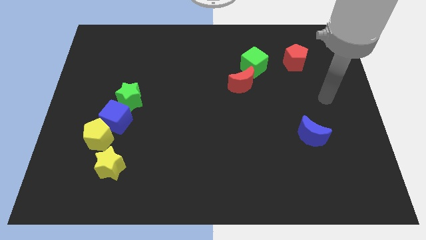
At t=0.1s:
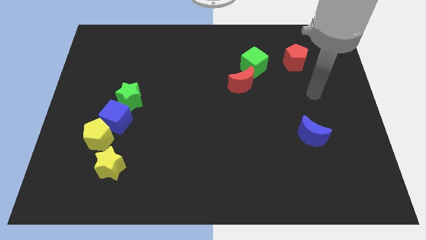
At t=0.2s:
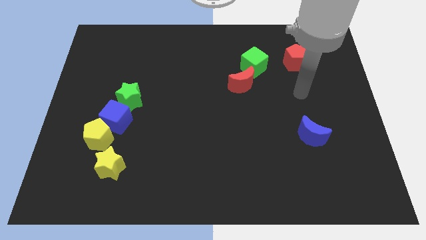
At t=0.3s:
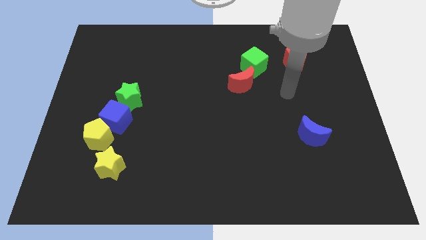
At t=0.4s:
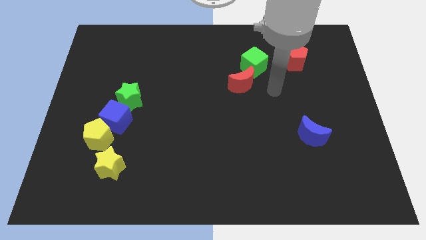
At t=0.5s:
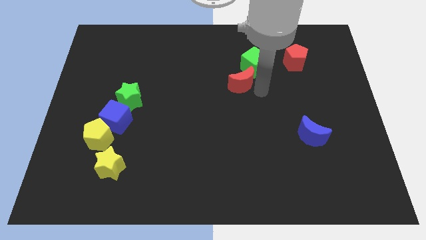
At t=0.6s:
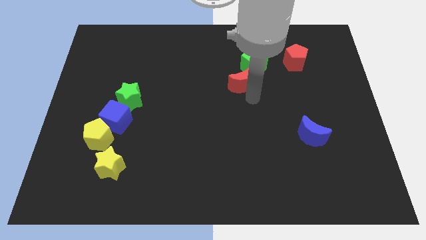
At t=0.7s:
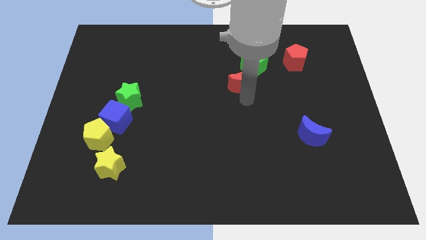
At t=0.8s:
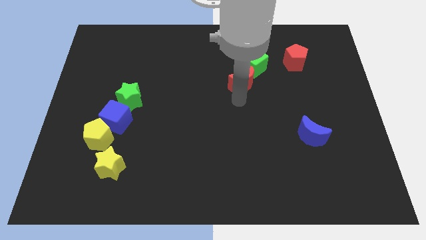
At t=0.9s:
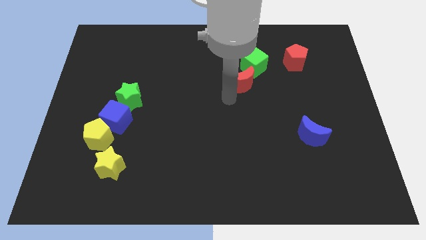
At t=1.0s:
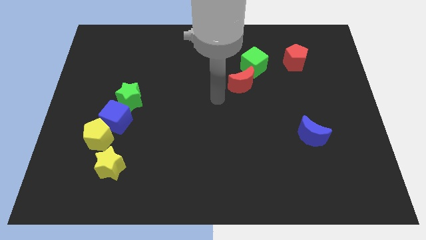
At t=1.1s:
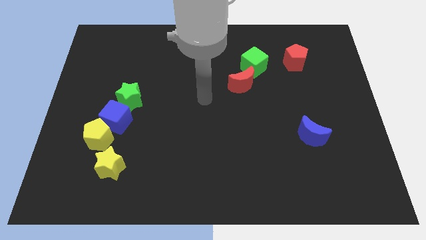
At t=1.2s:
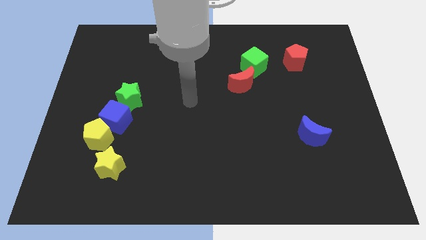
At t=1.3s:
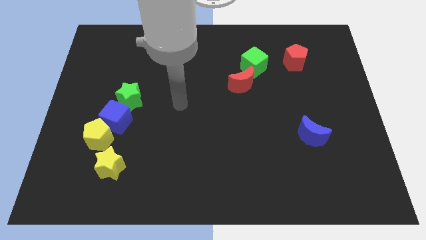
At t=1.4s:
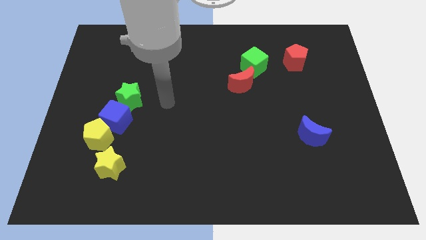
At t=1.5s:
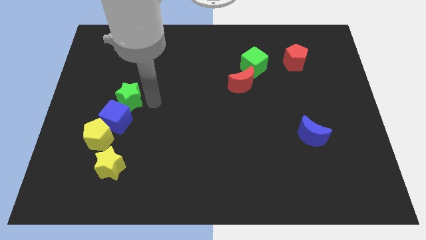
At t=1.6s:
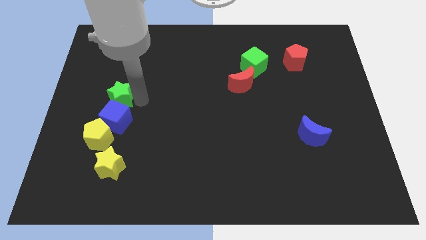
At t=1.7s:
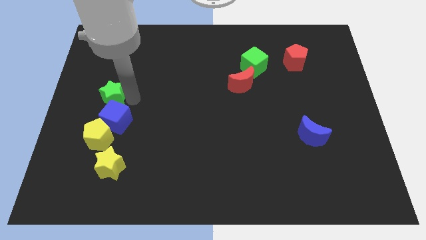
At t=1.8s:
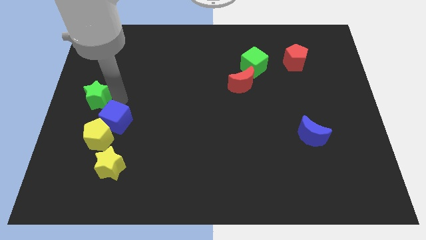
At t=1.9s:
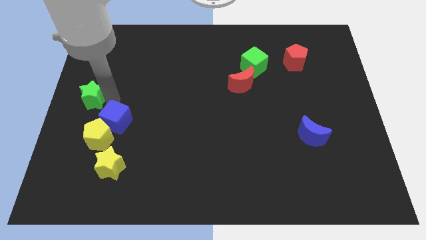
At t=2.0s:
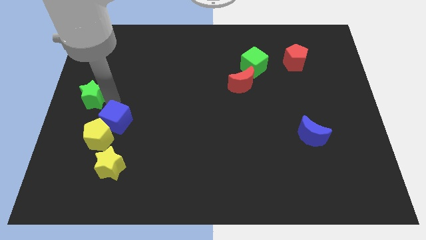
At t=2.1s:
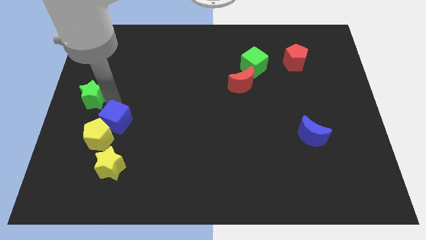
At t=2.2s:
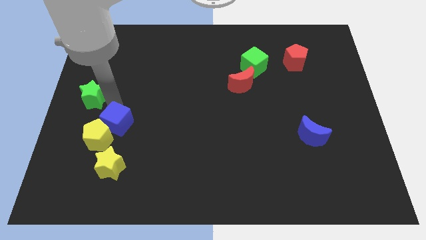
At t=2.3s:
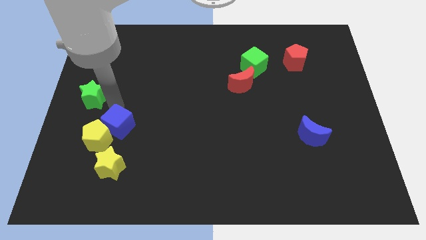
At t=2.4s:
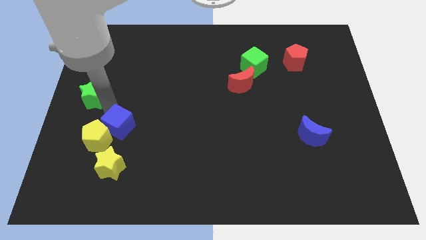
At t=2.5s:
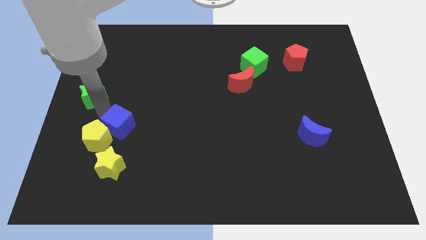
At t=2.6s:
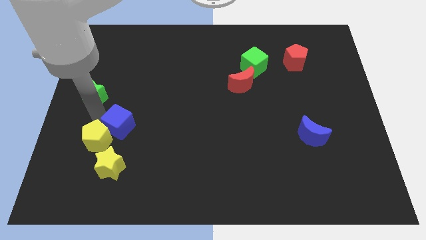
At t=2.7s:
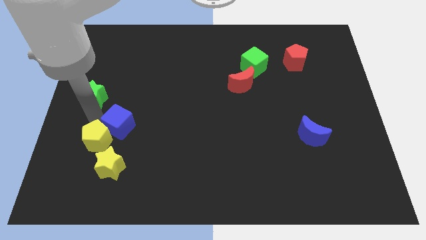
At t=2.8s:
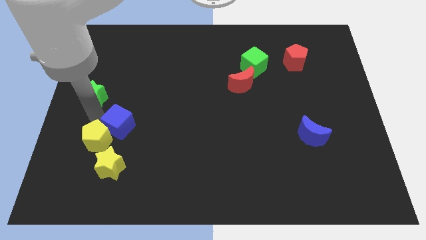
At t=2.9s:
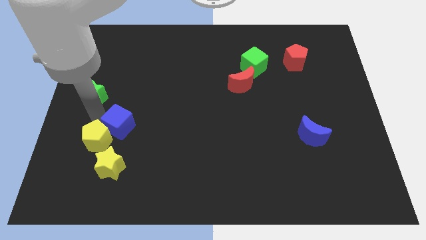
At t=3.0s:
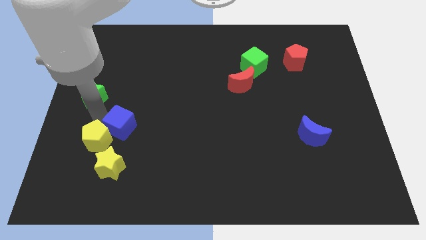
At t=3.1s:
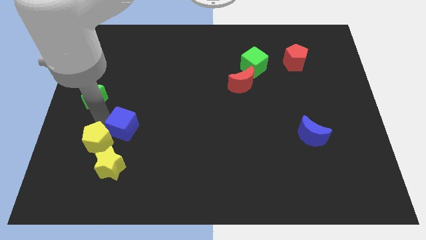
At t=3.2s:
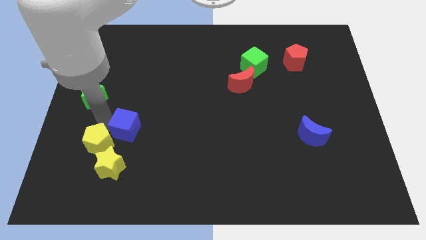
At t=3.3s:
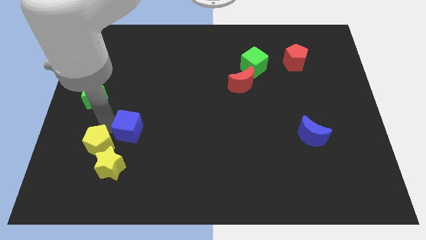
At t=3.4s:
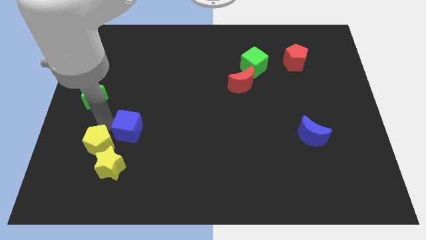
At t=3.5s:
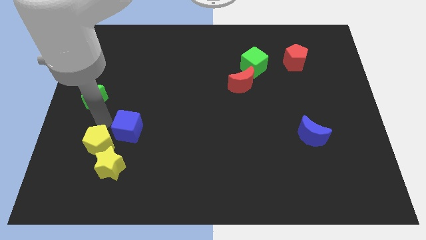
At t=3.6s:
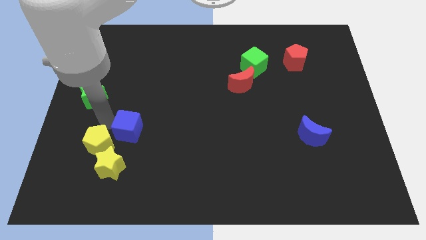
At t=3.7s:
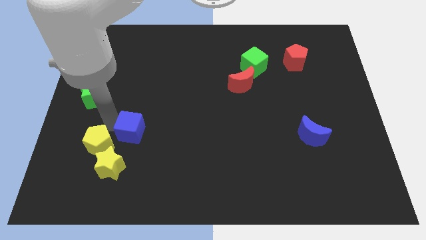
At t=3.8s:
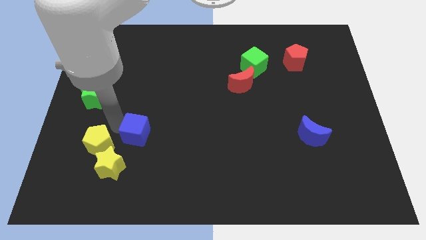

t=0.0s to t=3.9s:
move the blue cube away from the yellow pentagon and green star

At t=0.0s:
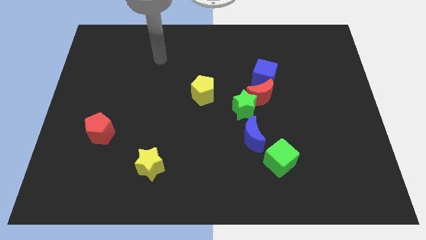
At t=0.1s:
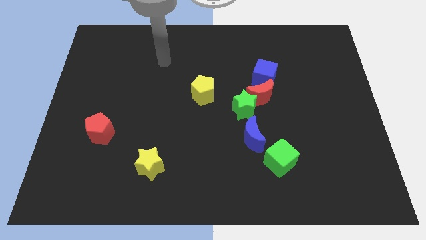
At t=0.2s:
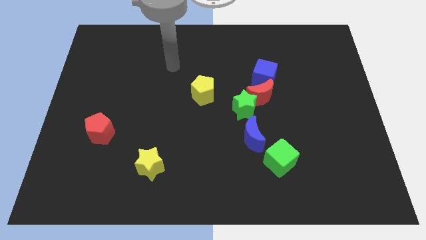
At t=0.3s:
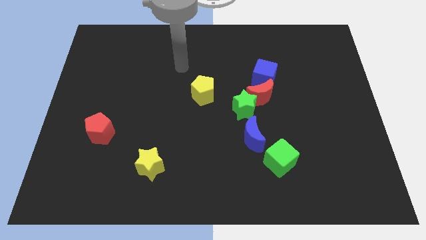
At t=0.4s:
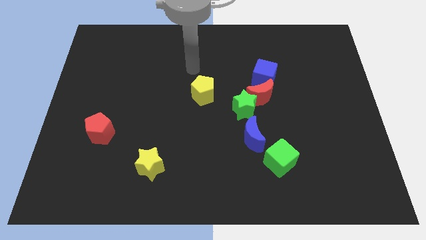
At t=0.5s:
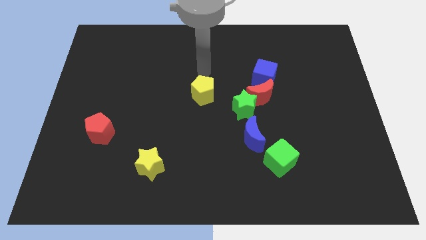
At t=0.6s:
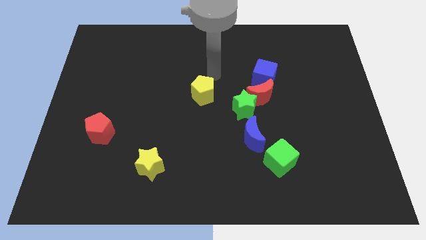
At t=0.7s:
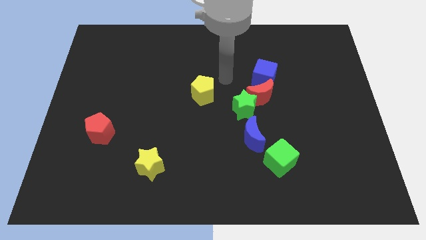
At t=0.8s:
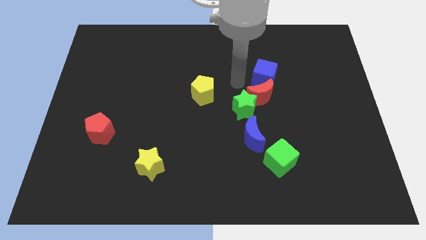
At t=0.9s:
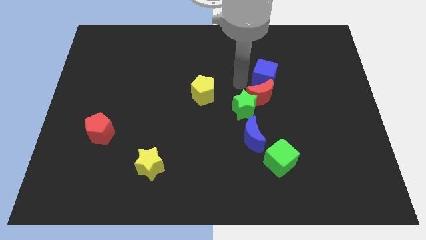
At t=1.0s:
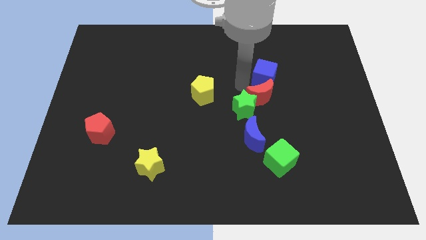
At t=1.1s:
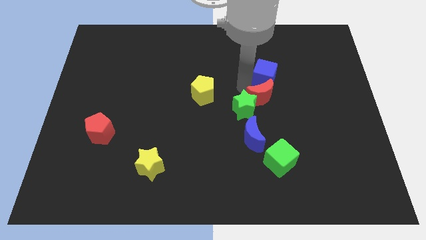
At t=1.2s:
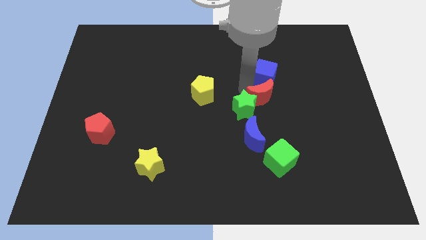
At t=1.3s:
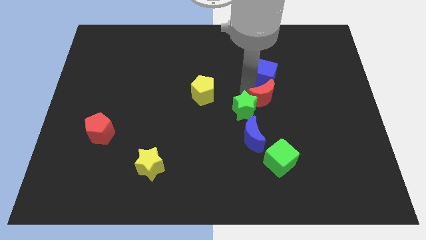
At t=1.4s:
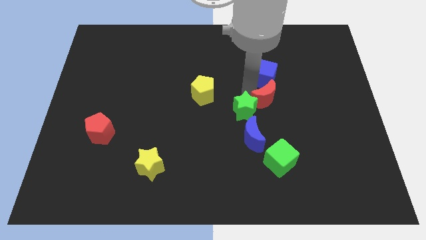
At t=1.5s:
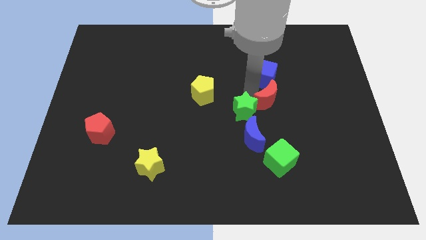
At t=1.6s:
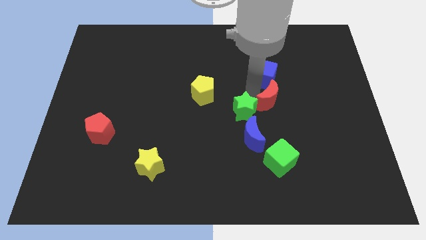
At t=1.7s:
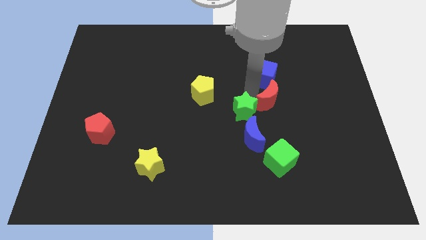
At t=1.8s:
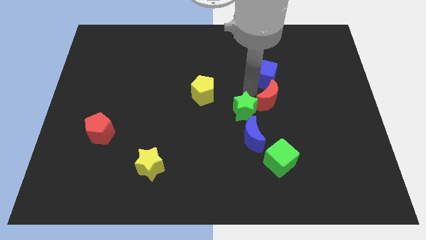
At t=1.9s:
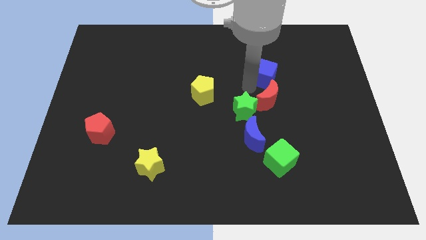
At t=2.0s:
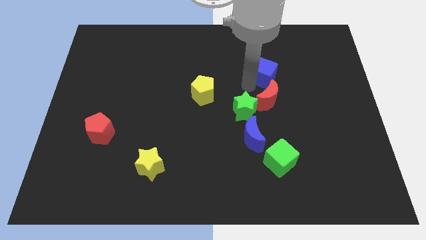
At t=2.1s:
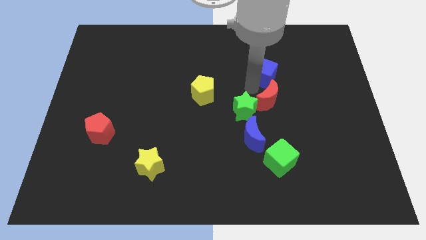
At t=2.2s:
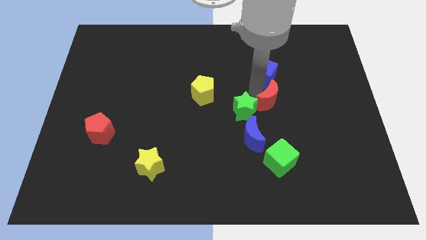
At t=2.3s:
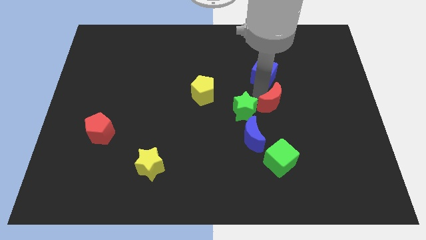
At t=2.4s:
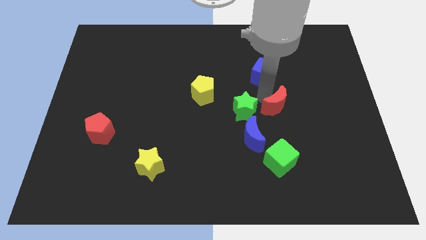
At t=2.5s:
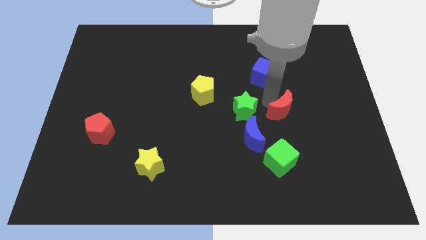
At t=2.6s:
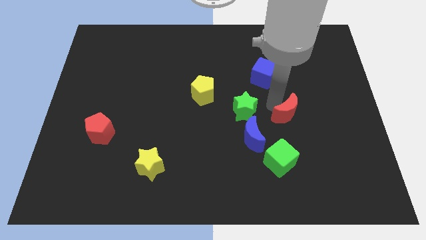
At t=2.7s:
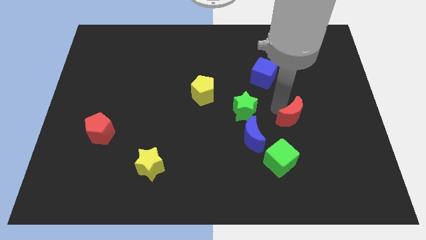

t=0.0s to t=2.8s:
pull the red moon apart from the green star and blue cube

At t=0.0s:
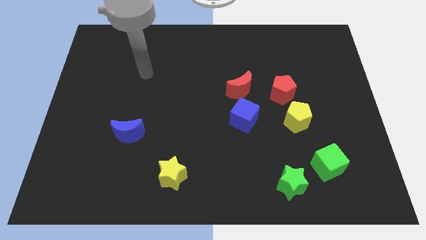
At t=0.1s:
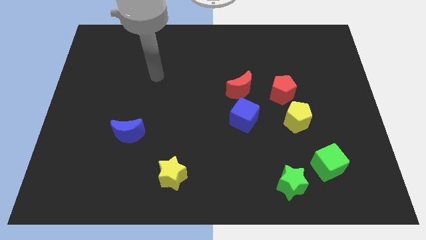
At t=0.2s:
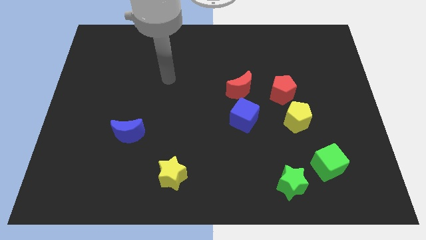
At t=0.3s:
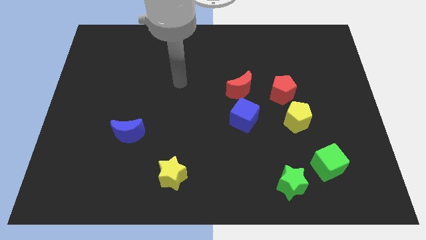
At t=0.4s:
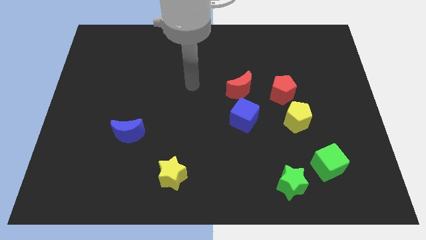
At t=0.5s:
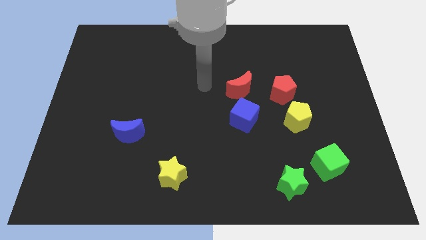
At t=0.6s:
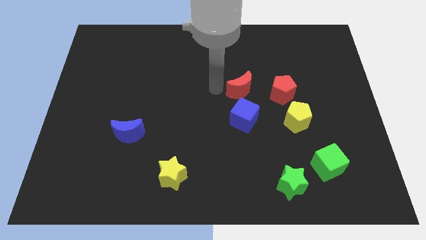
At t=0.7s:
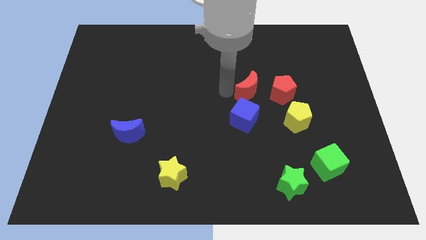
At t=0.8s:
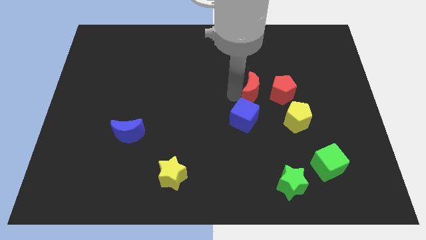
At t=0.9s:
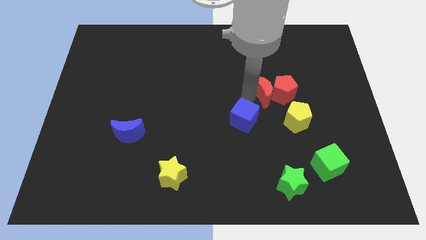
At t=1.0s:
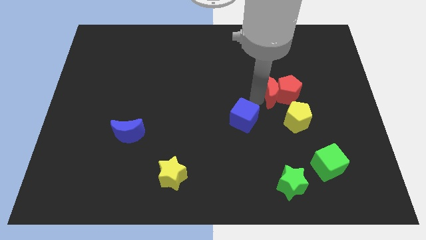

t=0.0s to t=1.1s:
separate the blue cube from the red moon
